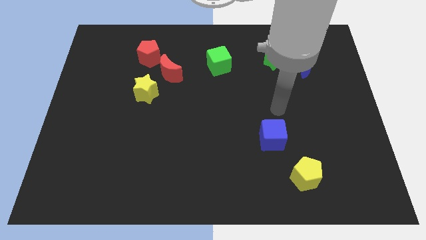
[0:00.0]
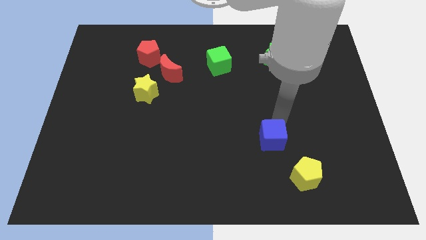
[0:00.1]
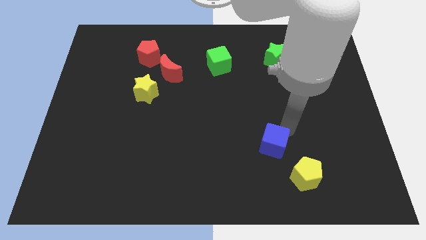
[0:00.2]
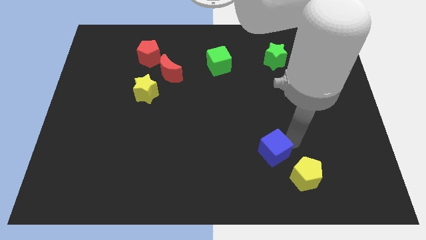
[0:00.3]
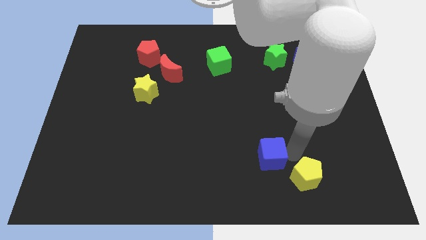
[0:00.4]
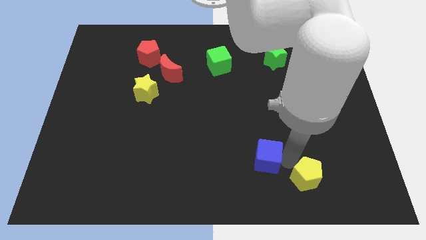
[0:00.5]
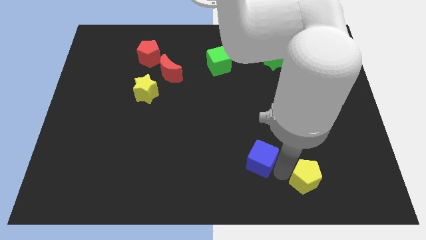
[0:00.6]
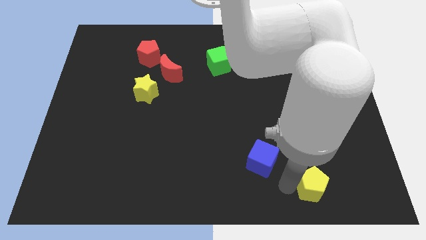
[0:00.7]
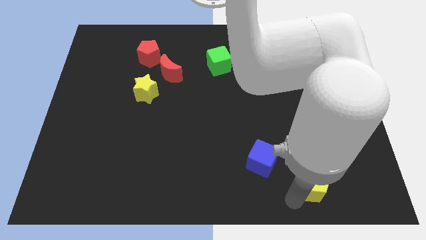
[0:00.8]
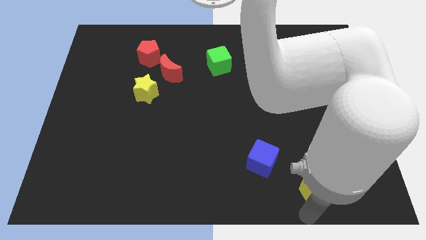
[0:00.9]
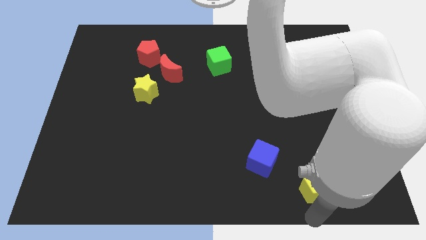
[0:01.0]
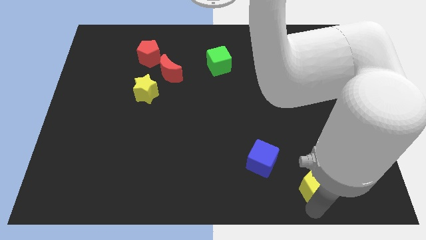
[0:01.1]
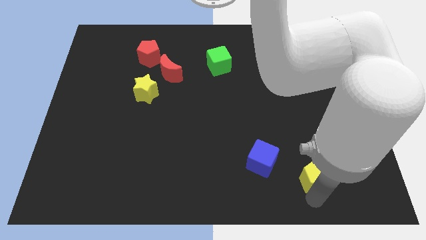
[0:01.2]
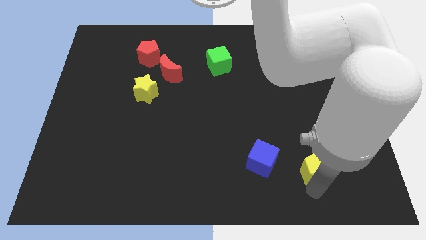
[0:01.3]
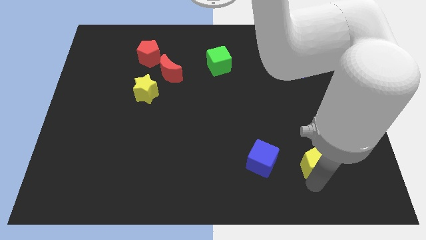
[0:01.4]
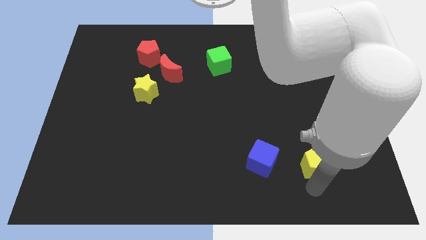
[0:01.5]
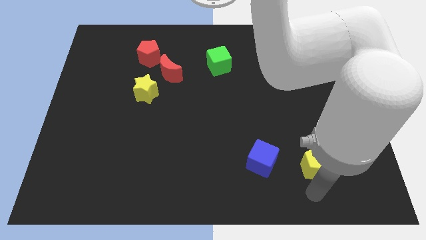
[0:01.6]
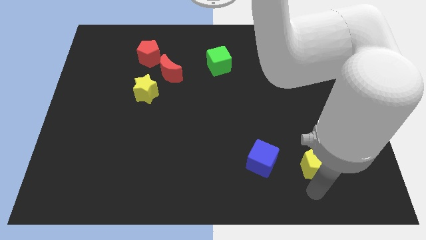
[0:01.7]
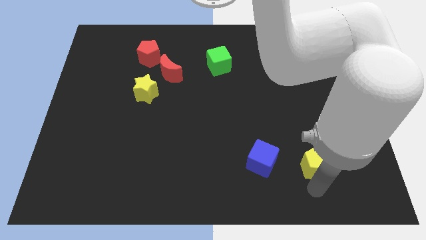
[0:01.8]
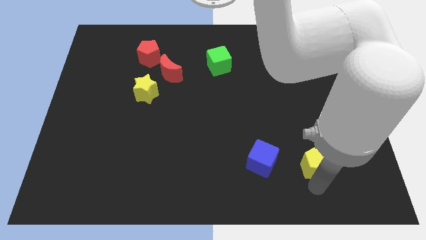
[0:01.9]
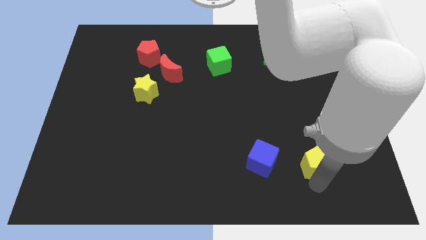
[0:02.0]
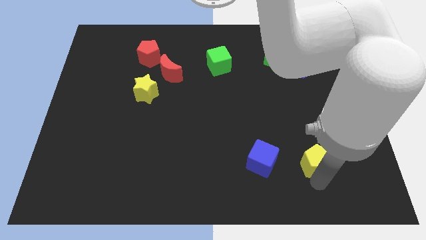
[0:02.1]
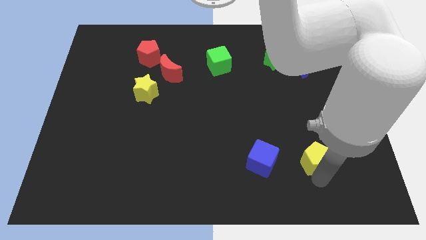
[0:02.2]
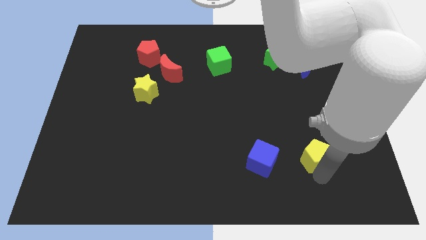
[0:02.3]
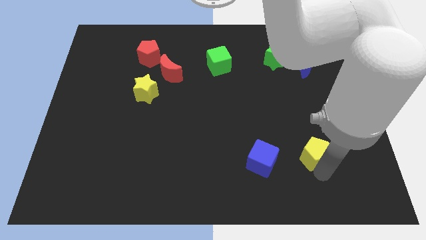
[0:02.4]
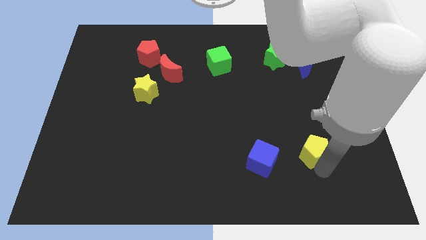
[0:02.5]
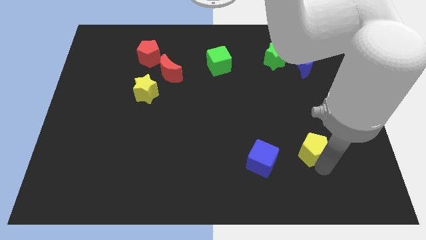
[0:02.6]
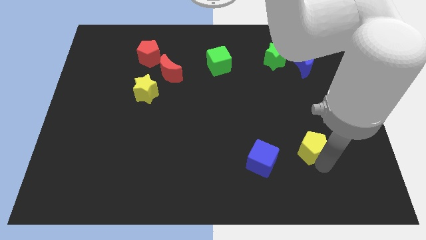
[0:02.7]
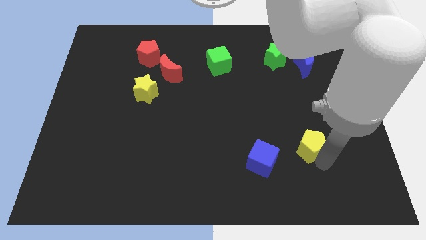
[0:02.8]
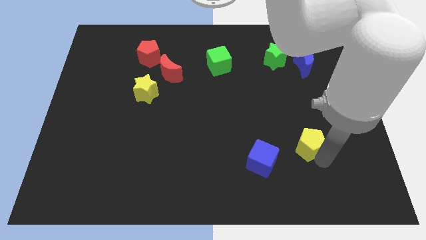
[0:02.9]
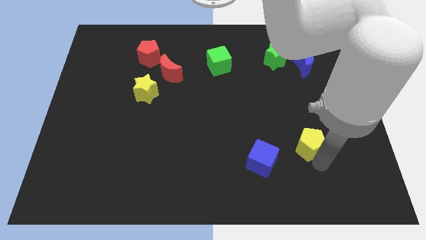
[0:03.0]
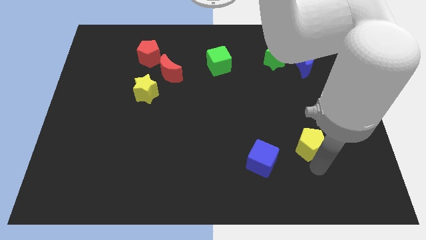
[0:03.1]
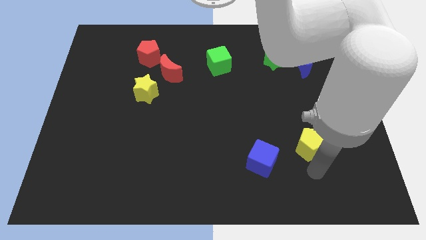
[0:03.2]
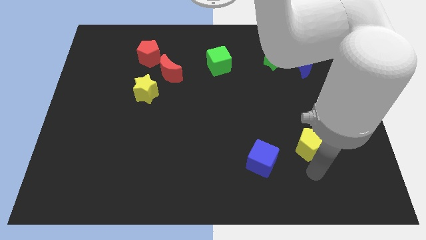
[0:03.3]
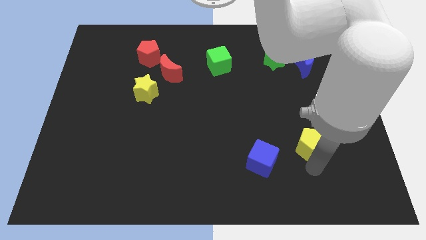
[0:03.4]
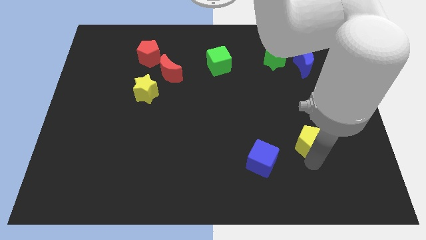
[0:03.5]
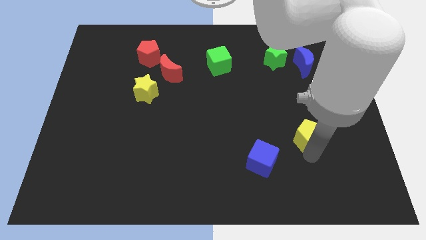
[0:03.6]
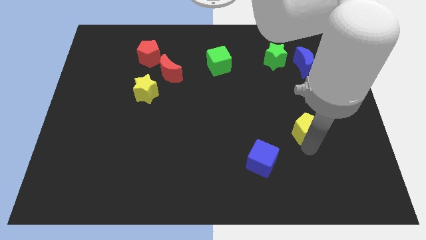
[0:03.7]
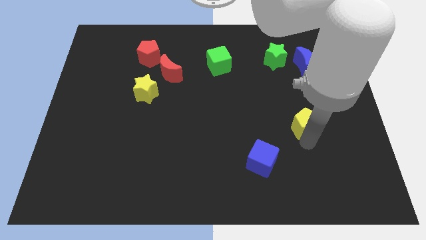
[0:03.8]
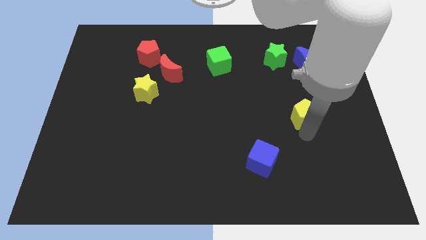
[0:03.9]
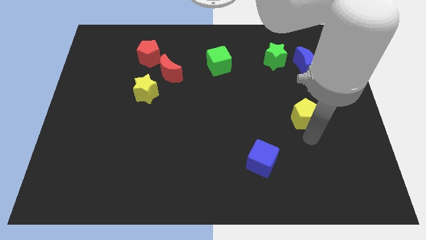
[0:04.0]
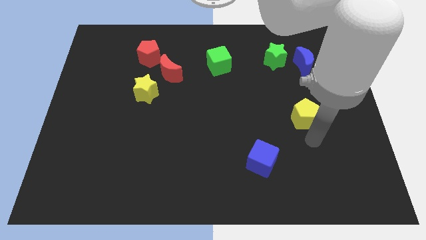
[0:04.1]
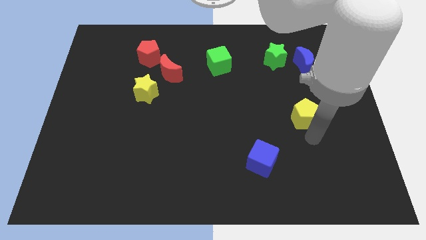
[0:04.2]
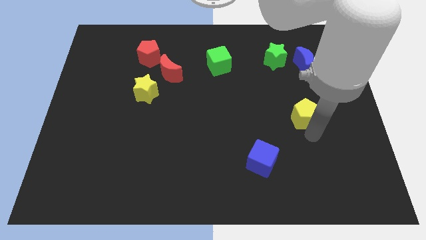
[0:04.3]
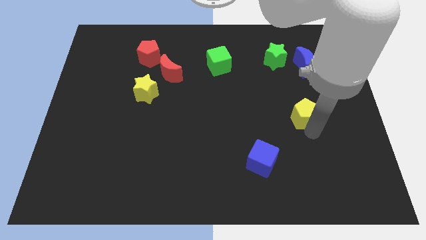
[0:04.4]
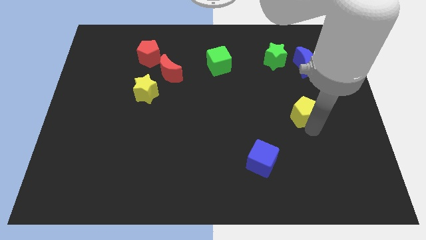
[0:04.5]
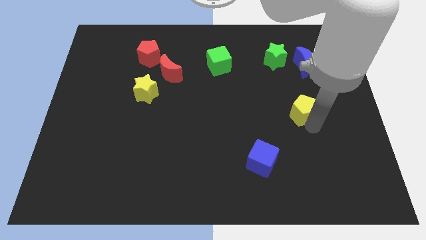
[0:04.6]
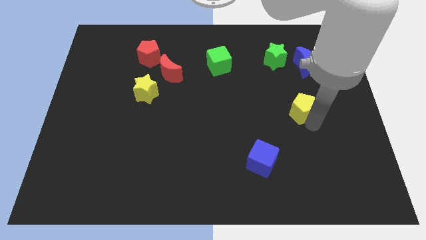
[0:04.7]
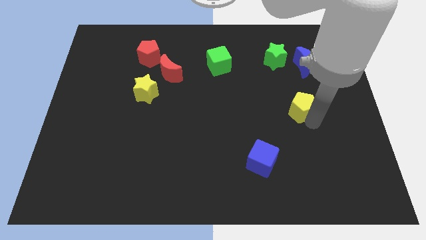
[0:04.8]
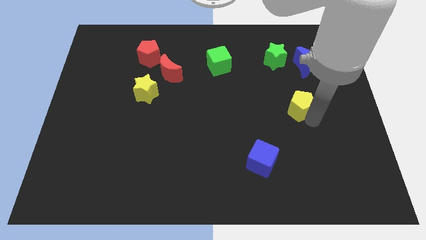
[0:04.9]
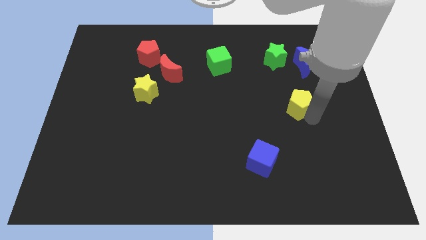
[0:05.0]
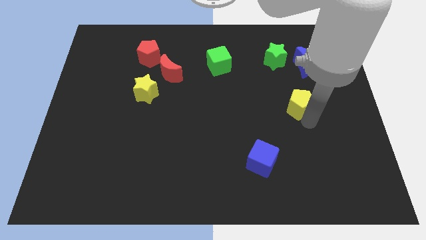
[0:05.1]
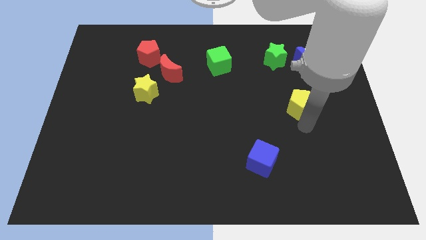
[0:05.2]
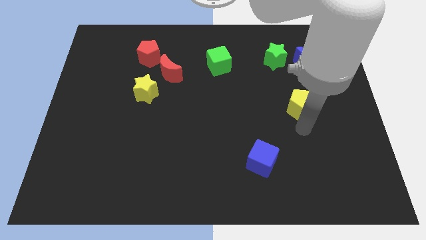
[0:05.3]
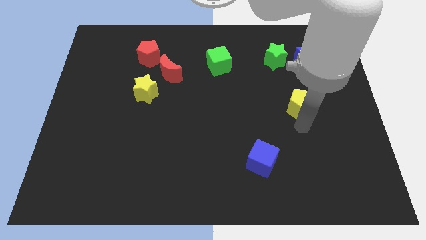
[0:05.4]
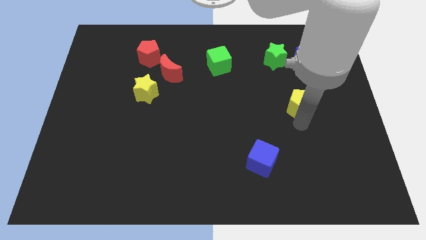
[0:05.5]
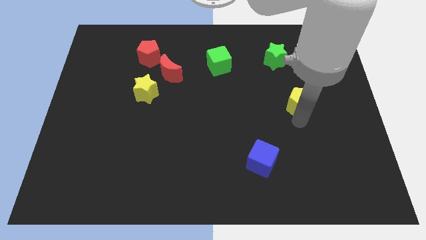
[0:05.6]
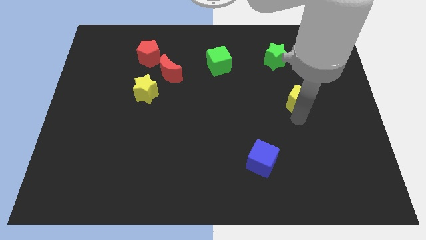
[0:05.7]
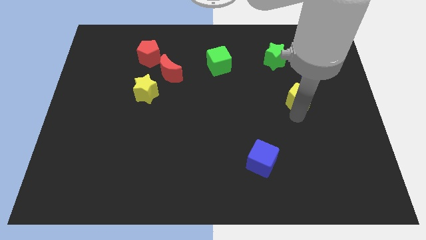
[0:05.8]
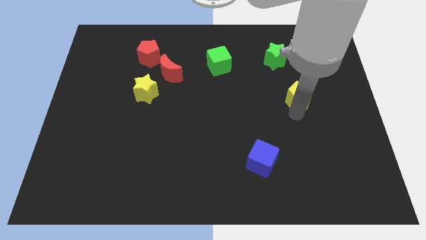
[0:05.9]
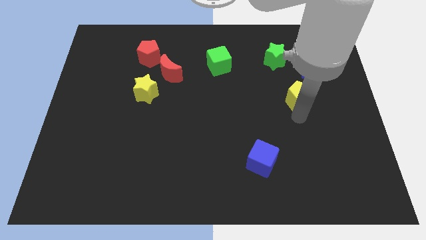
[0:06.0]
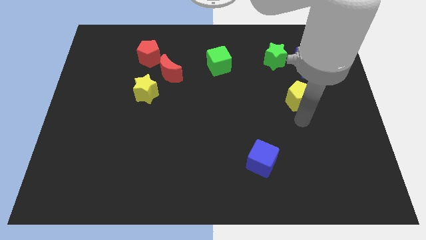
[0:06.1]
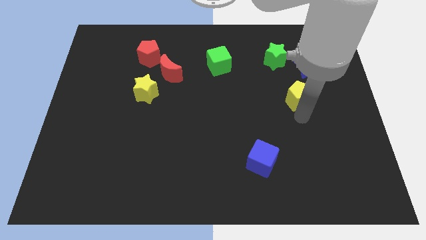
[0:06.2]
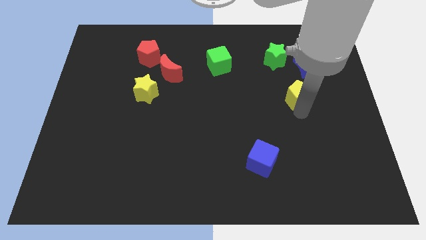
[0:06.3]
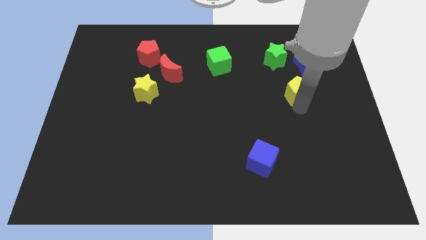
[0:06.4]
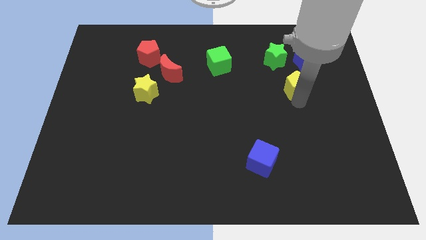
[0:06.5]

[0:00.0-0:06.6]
move the yellow pentagon to the bottom right side of the green star

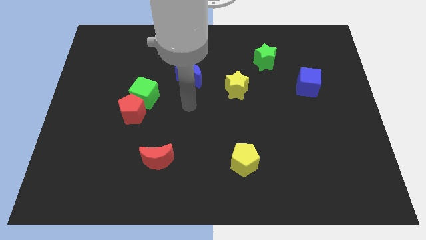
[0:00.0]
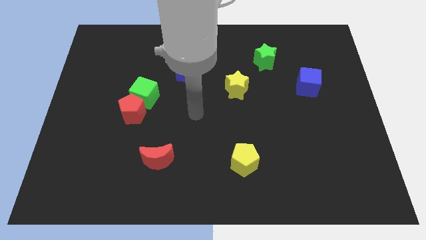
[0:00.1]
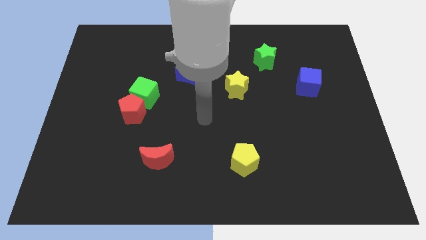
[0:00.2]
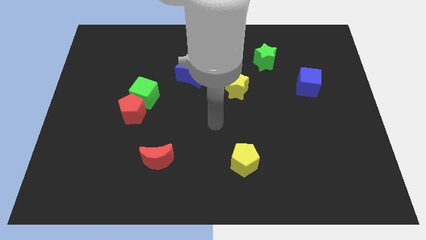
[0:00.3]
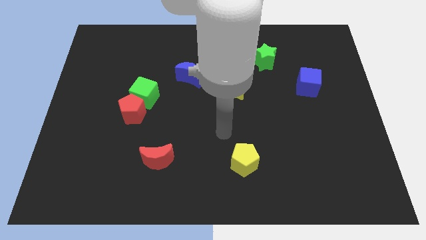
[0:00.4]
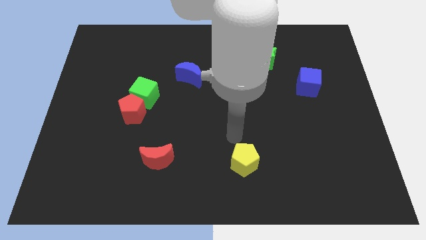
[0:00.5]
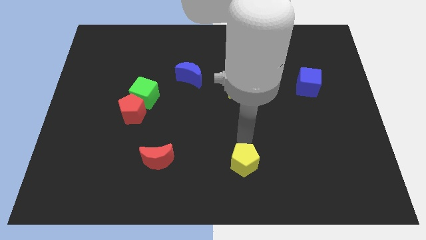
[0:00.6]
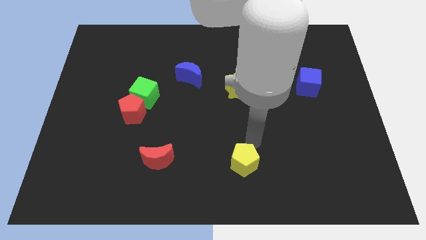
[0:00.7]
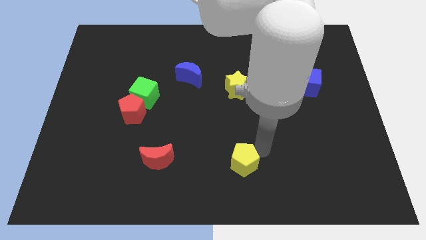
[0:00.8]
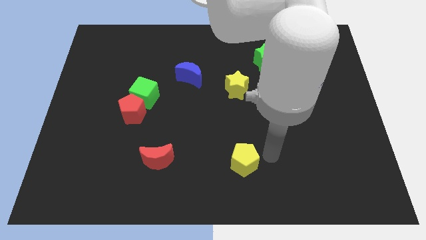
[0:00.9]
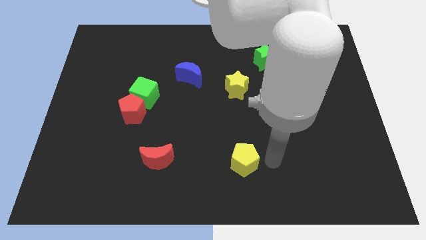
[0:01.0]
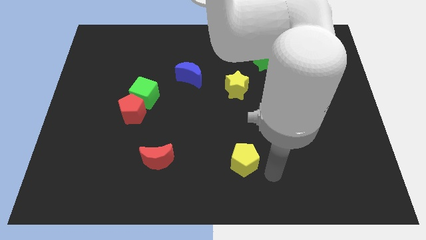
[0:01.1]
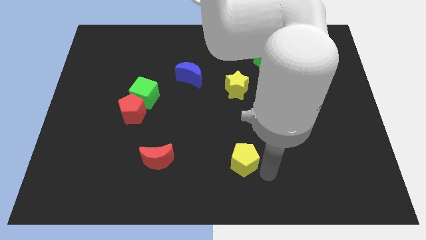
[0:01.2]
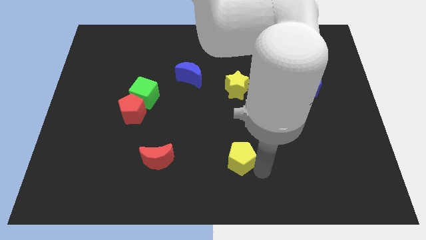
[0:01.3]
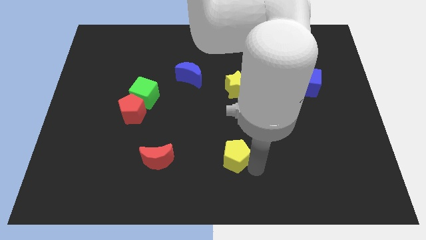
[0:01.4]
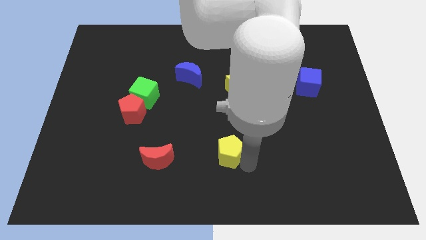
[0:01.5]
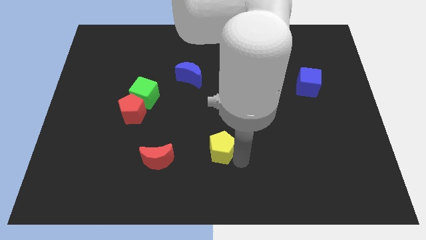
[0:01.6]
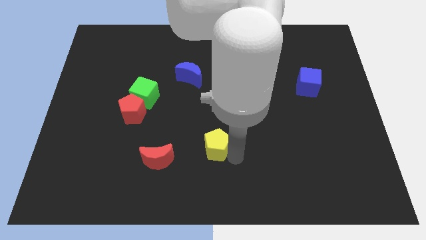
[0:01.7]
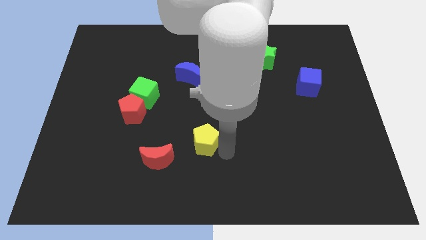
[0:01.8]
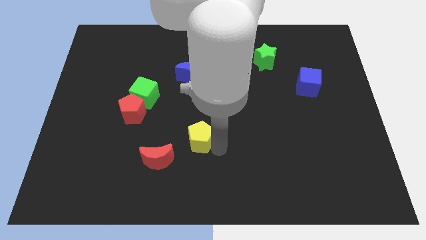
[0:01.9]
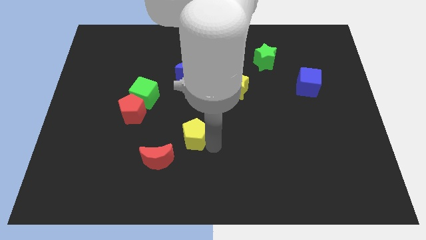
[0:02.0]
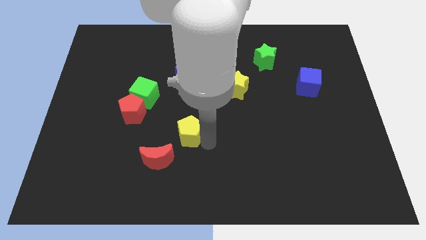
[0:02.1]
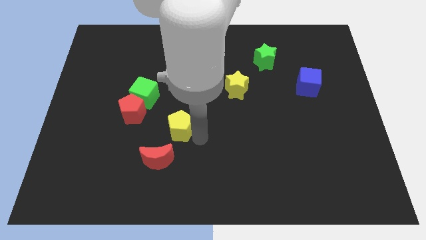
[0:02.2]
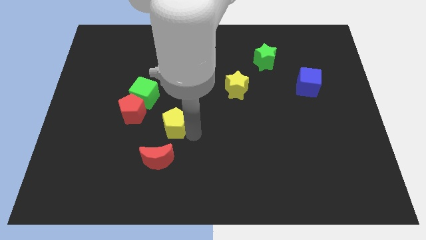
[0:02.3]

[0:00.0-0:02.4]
put the yellow pentagon diagonally down and to the right of the red pentagon
